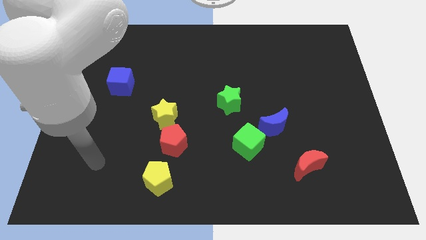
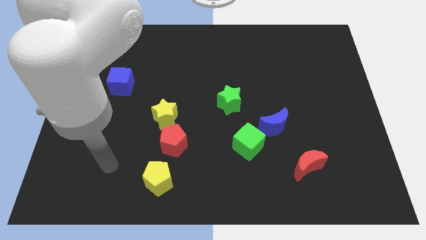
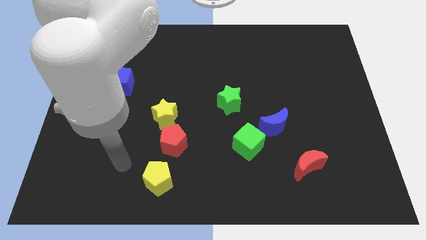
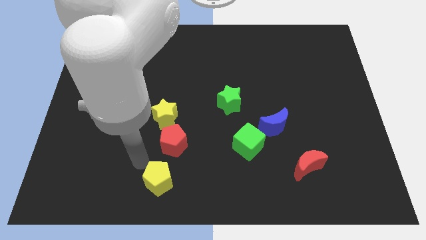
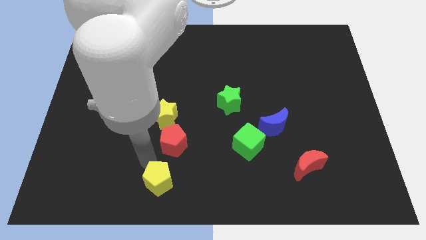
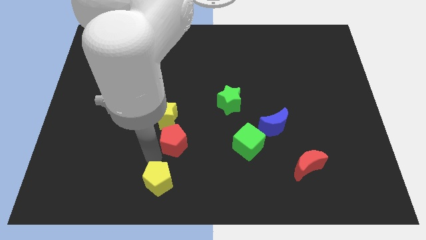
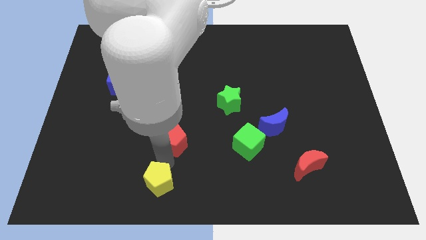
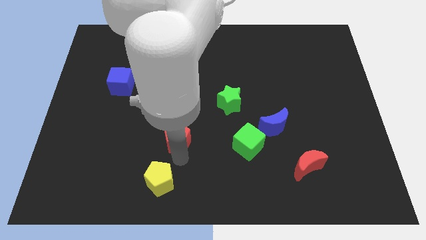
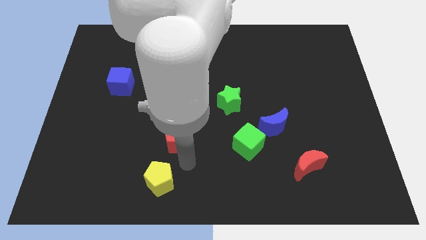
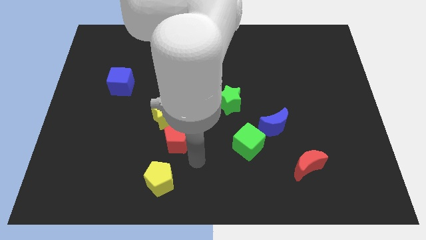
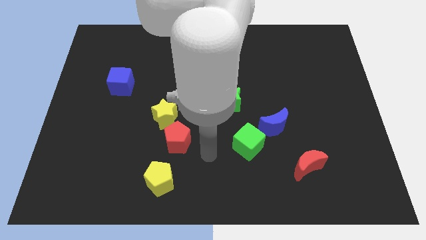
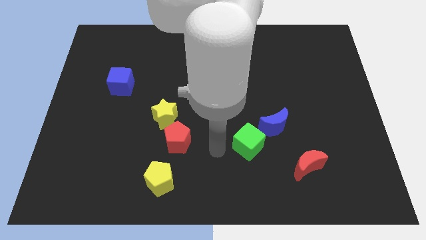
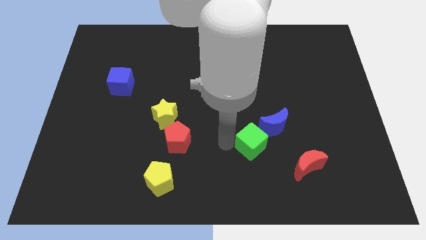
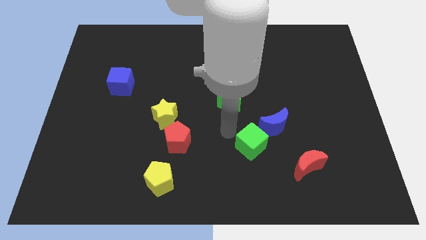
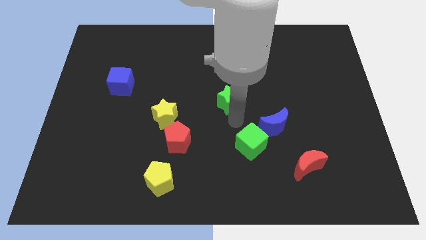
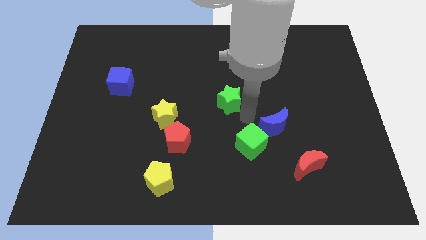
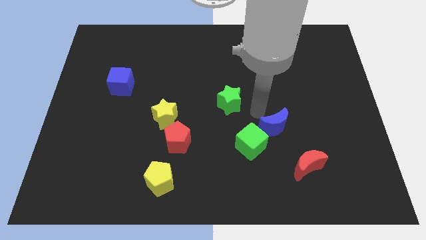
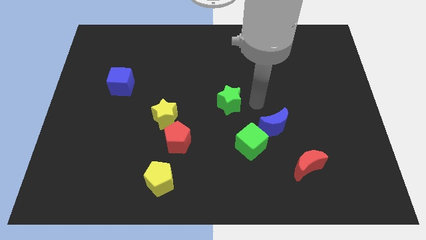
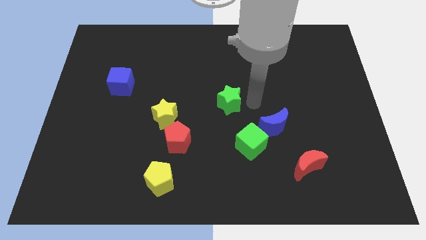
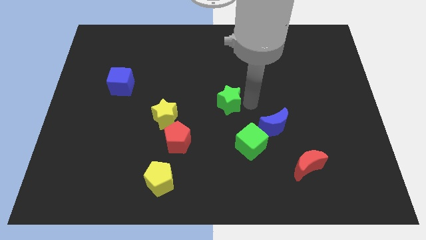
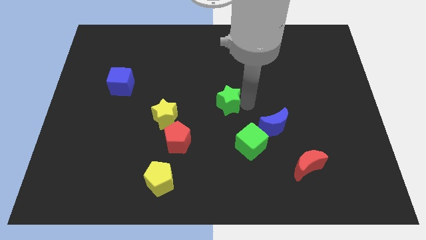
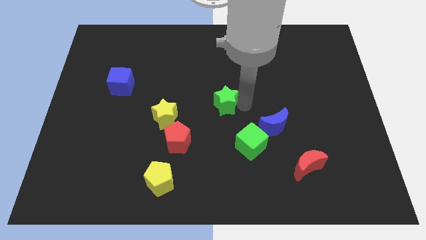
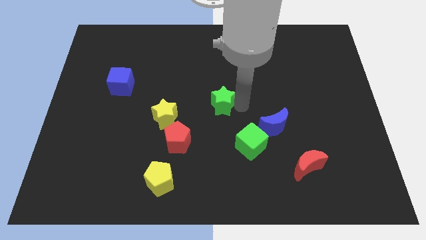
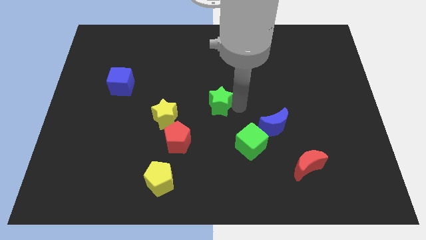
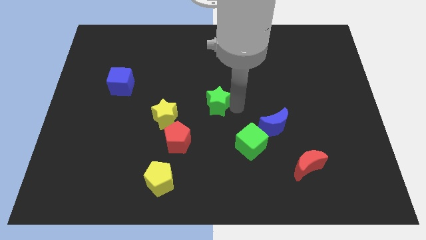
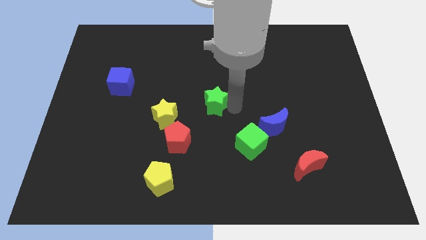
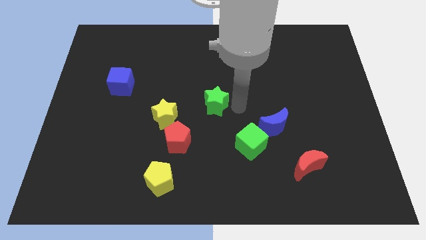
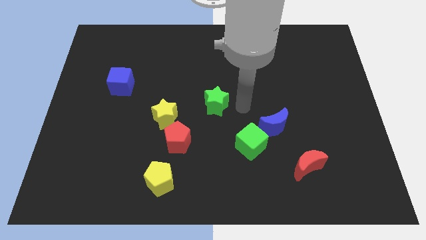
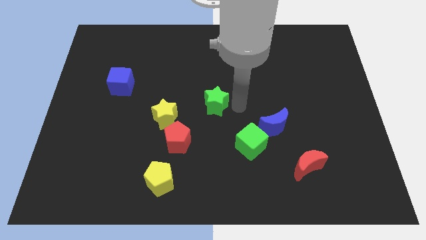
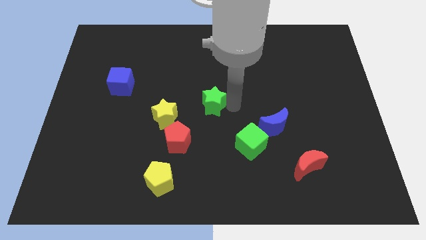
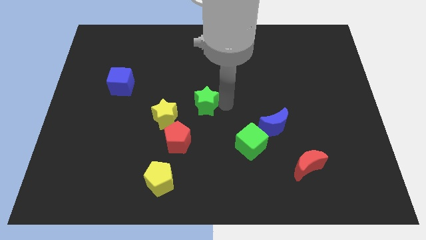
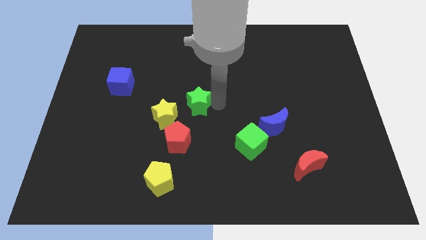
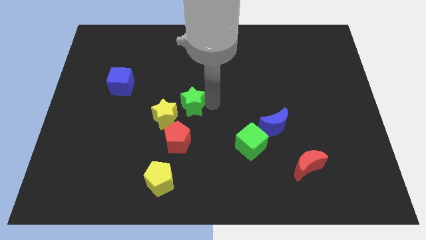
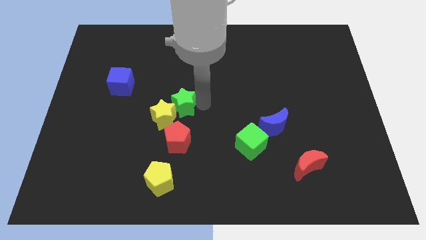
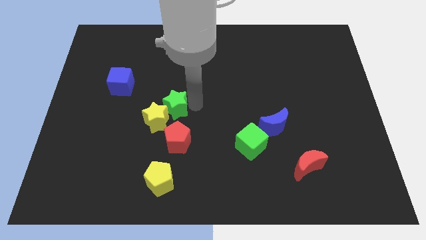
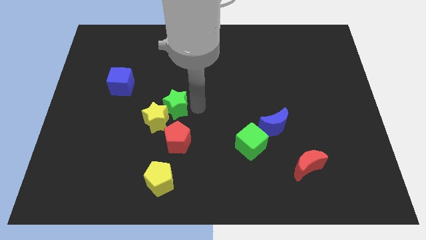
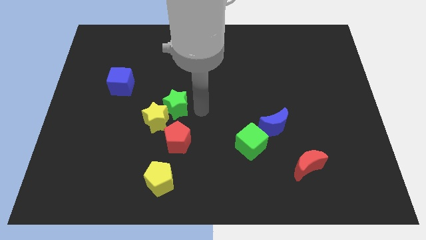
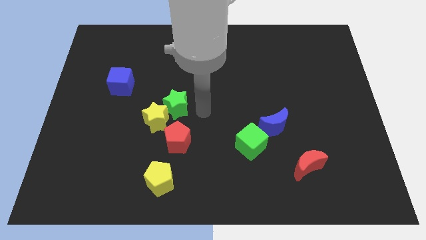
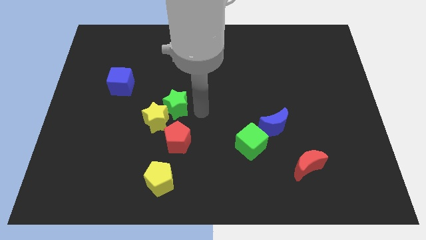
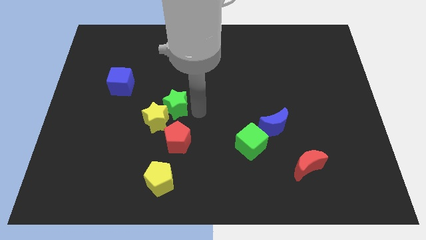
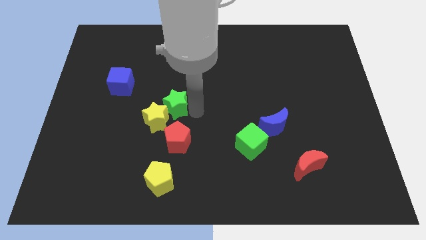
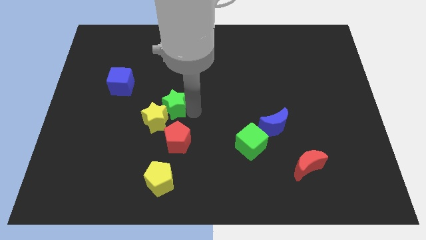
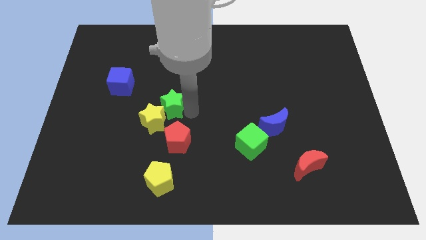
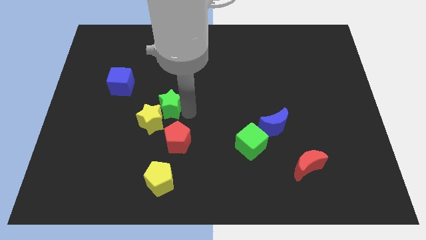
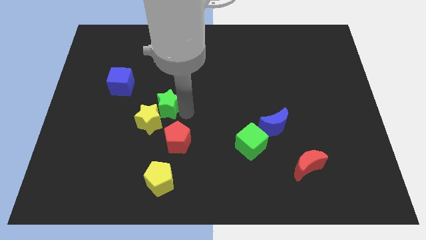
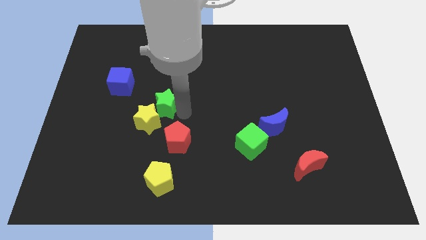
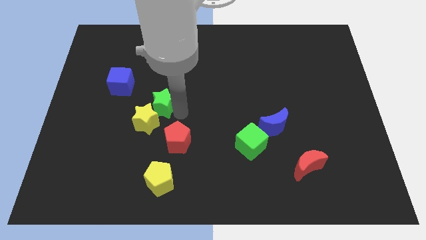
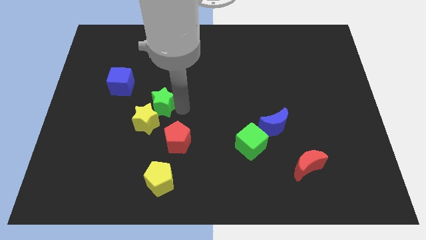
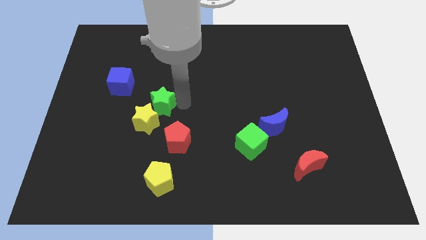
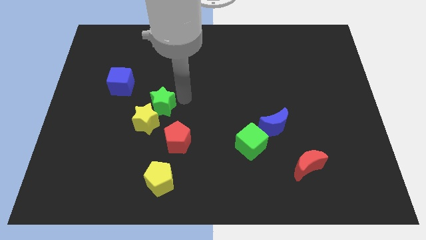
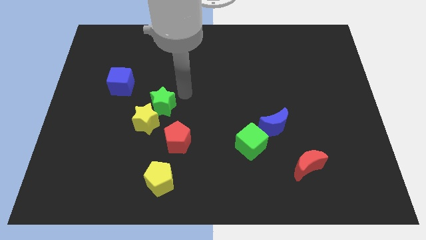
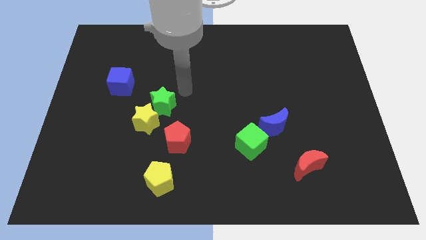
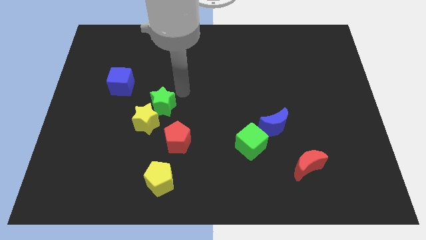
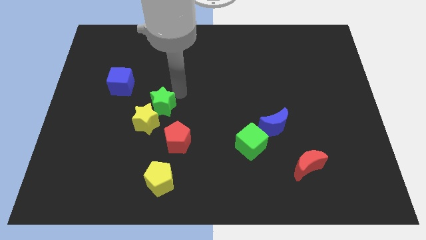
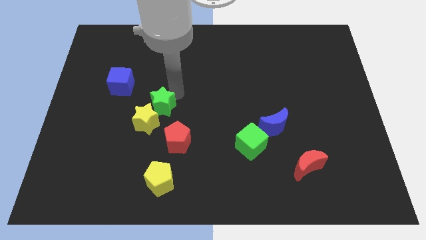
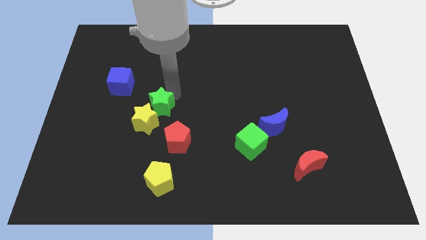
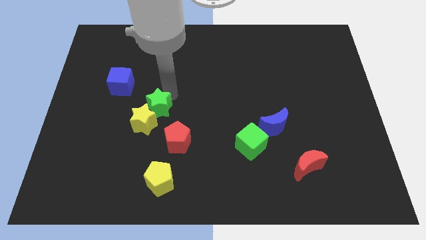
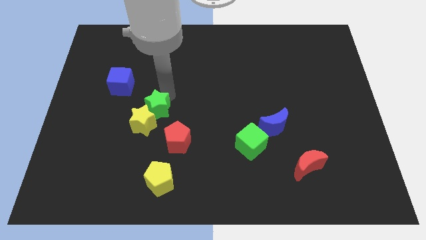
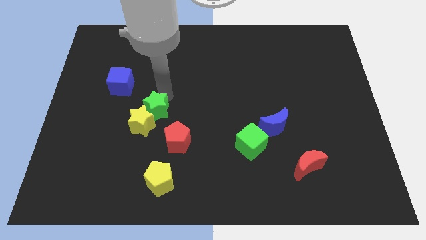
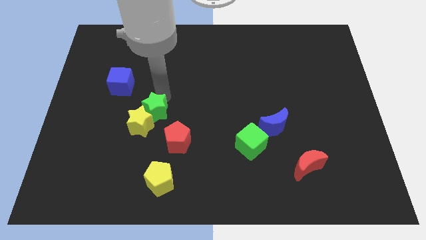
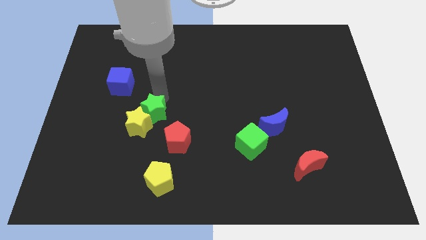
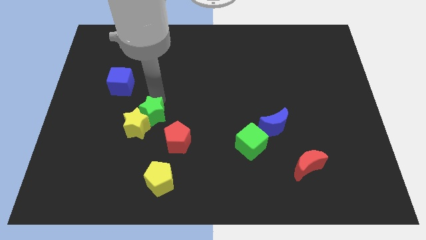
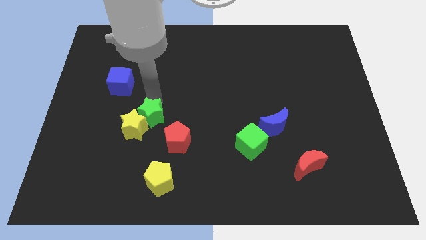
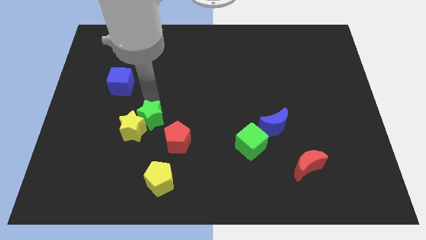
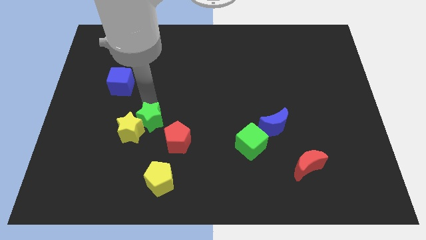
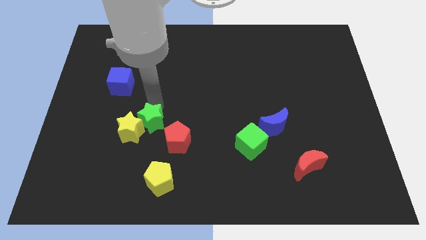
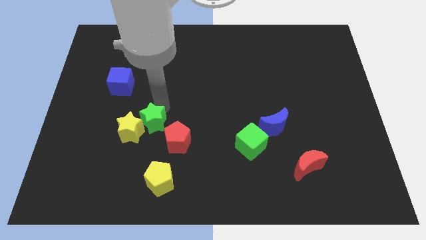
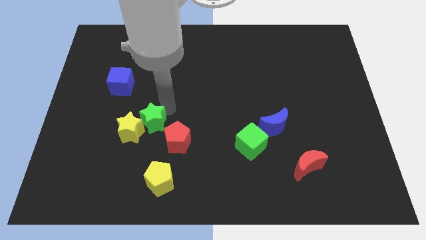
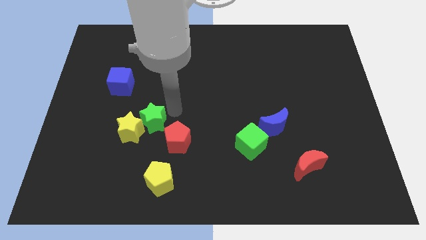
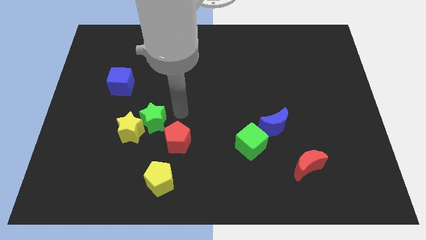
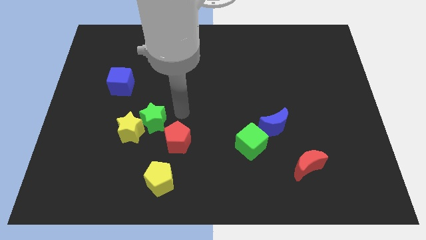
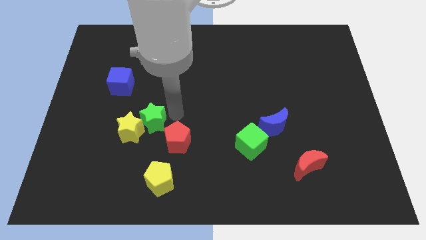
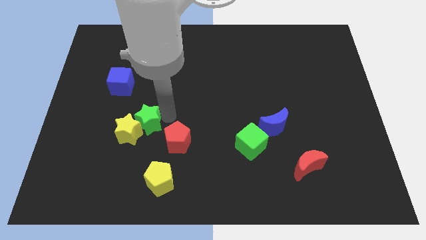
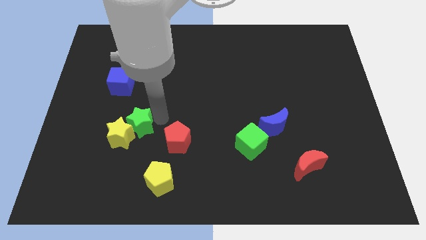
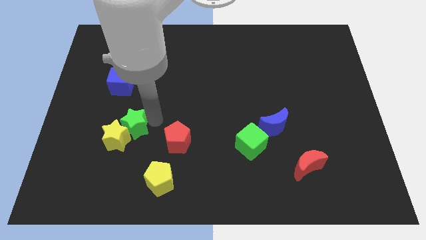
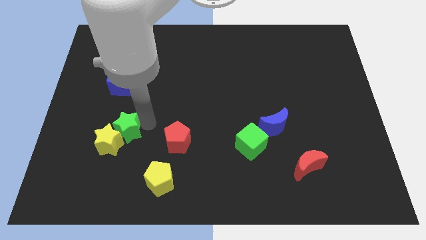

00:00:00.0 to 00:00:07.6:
move the green star left

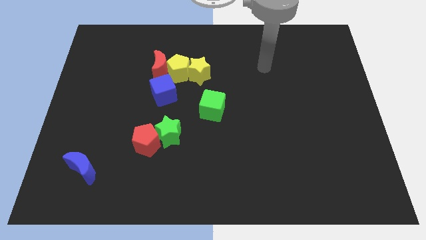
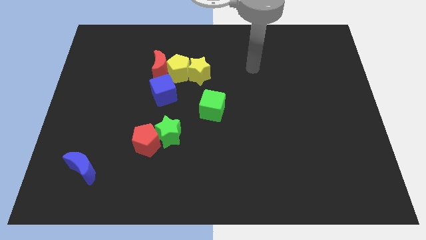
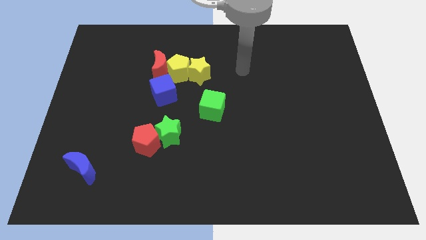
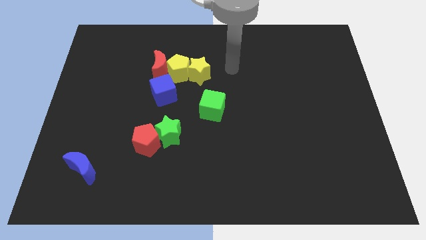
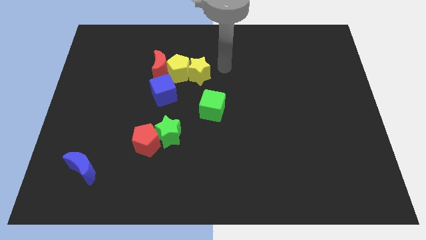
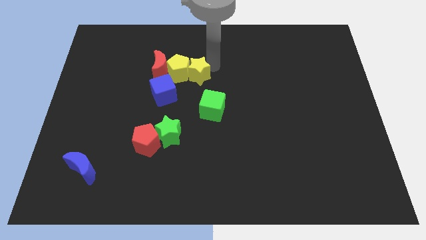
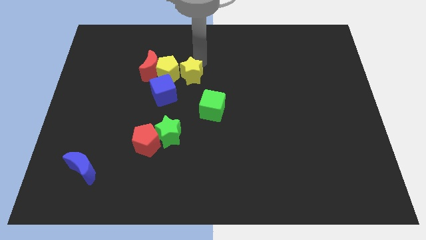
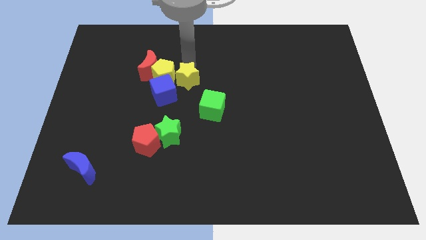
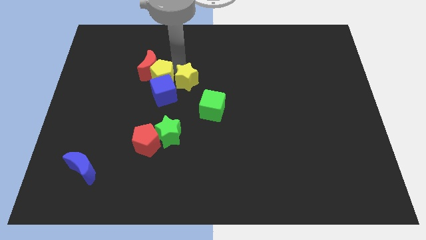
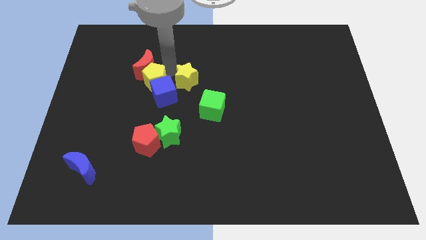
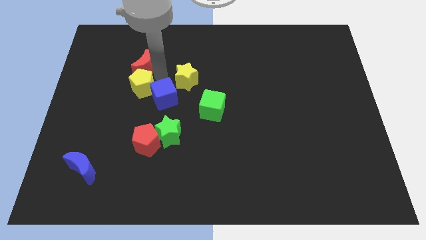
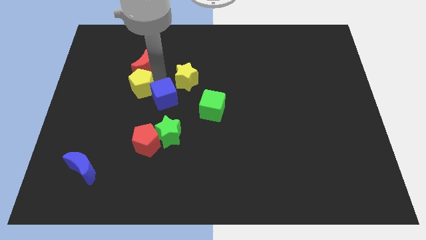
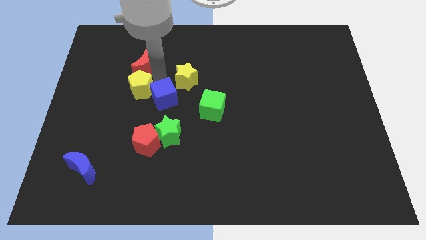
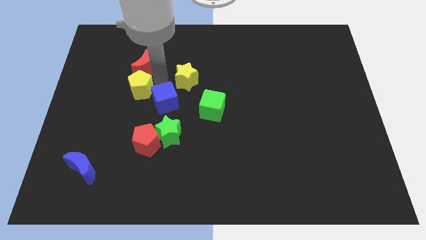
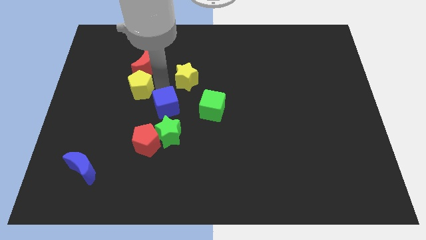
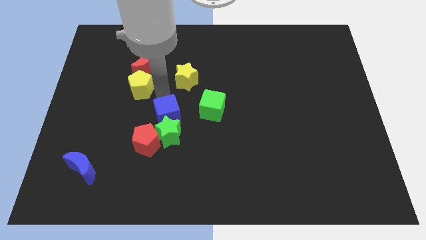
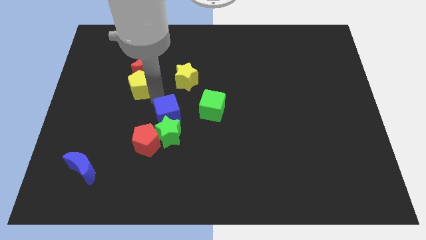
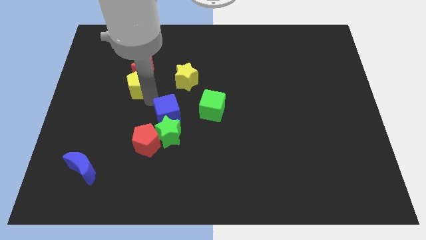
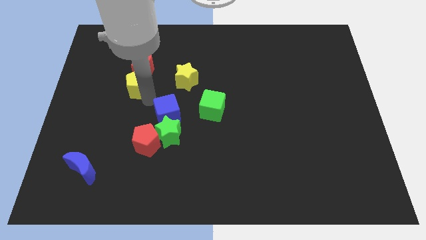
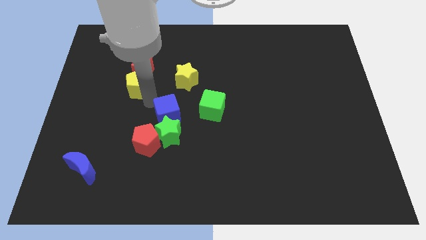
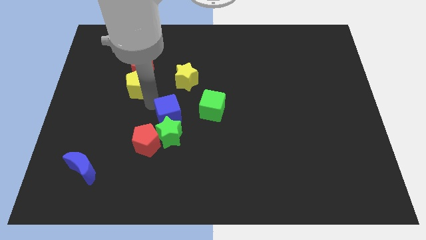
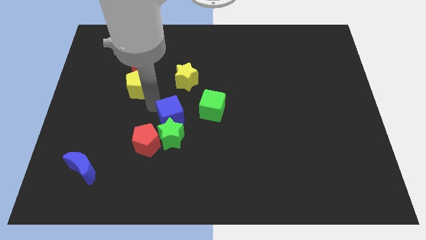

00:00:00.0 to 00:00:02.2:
push the blue cube down slightly
